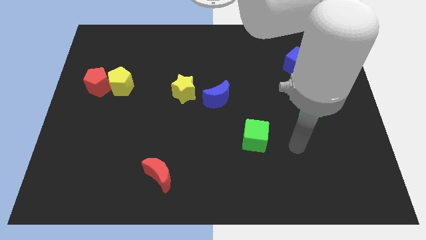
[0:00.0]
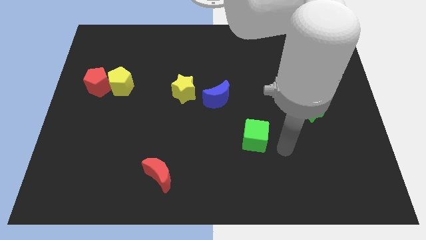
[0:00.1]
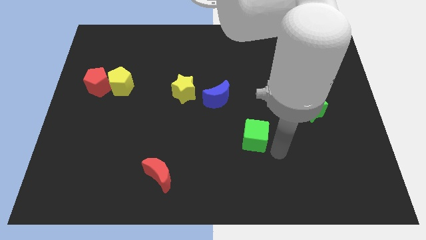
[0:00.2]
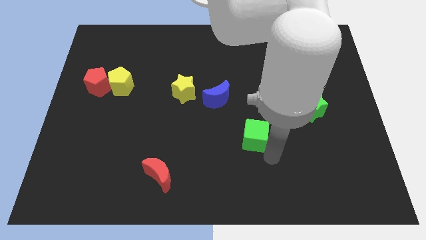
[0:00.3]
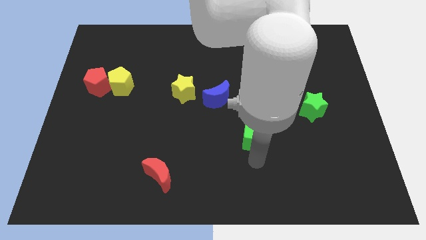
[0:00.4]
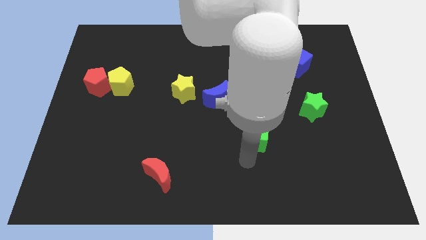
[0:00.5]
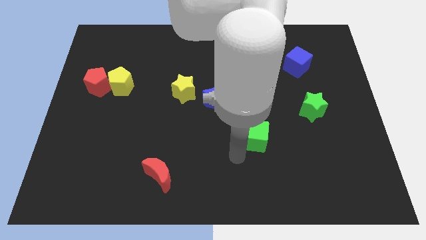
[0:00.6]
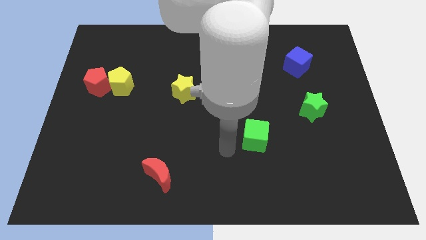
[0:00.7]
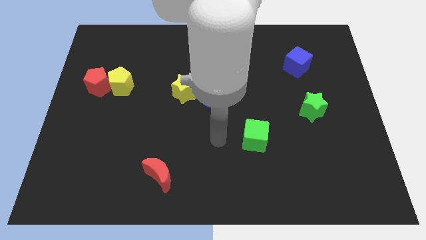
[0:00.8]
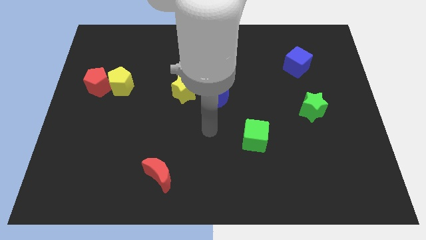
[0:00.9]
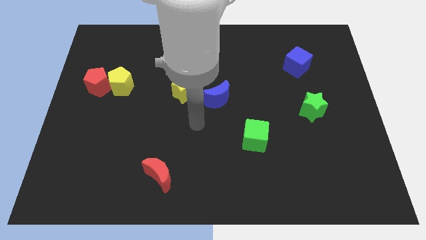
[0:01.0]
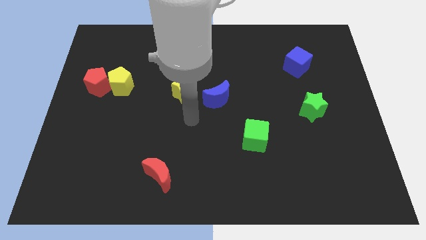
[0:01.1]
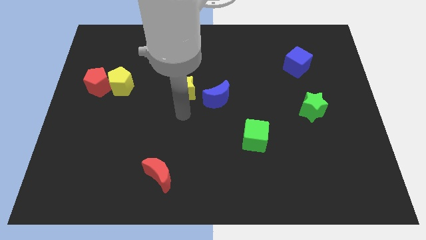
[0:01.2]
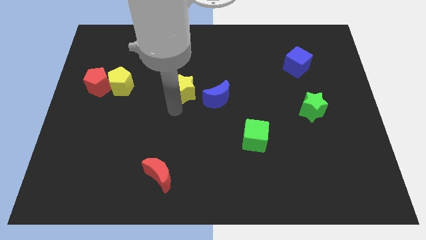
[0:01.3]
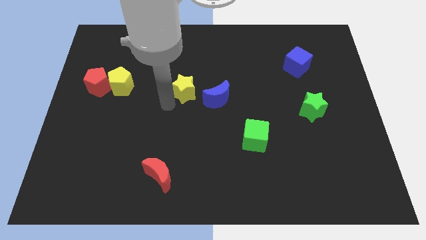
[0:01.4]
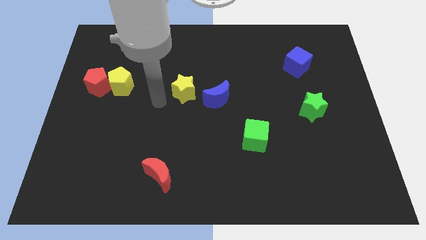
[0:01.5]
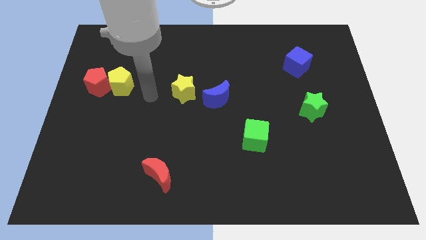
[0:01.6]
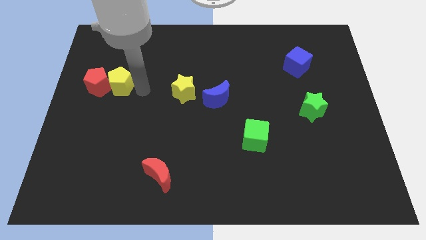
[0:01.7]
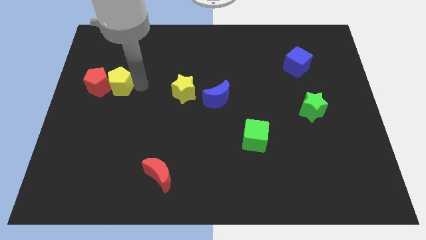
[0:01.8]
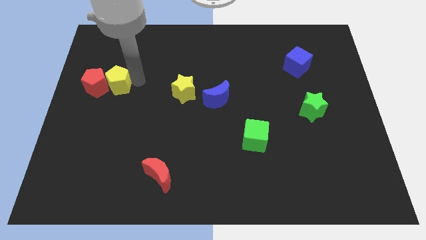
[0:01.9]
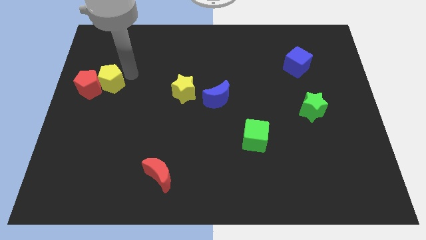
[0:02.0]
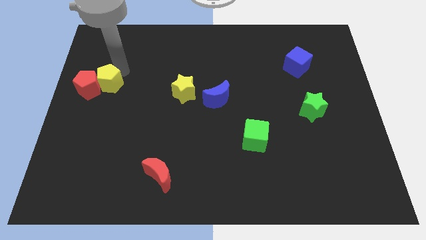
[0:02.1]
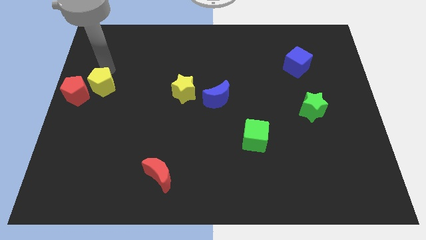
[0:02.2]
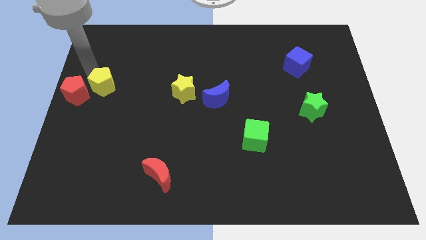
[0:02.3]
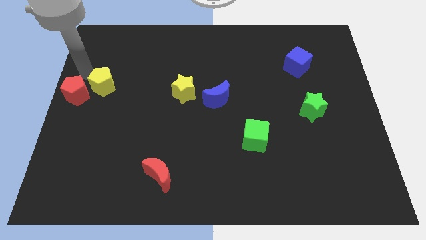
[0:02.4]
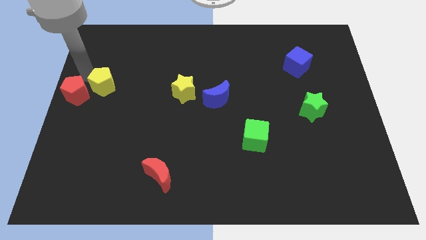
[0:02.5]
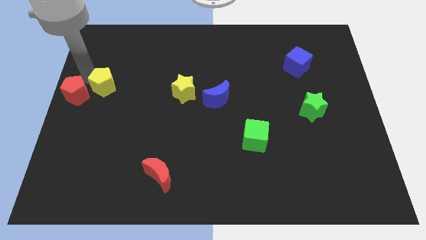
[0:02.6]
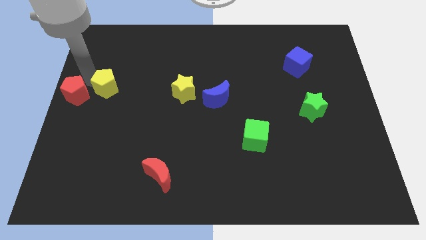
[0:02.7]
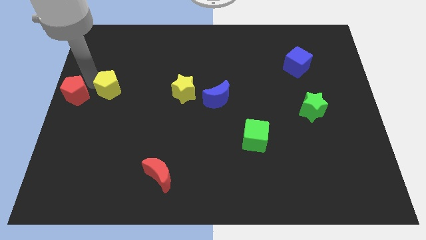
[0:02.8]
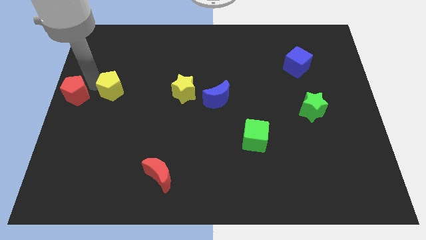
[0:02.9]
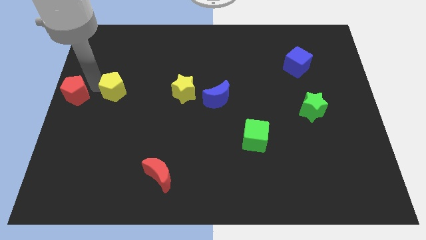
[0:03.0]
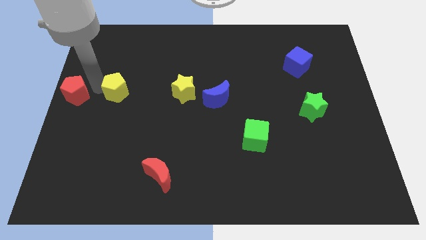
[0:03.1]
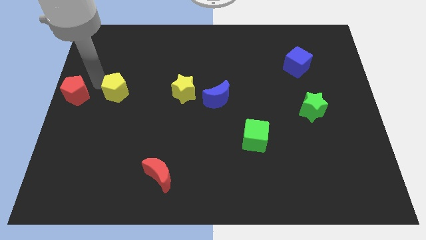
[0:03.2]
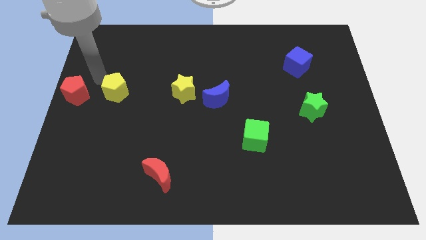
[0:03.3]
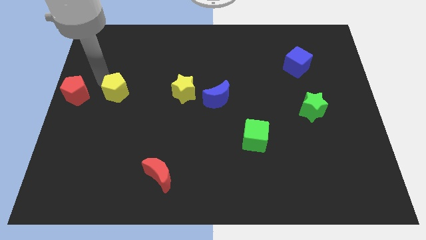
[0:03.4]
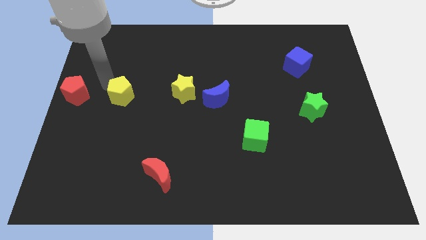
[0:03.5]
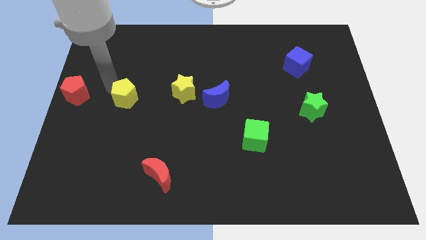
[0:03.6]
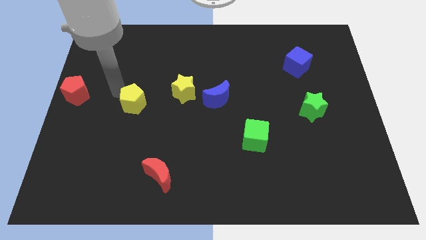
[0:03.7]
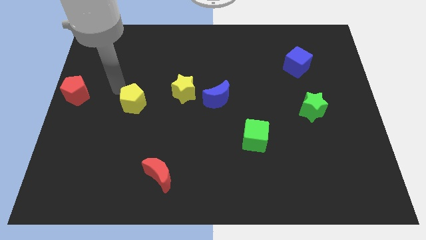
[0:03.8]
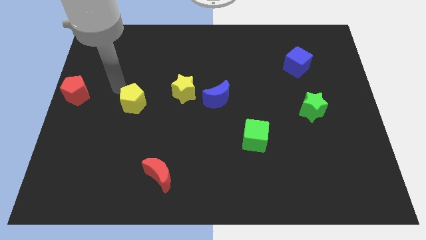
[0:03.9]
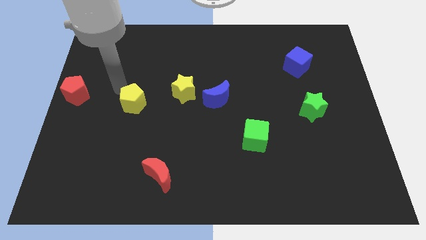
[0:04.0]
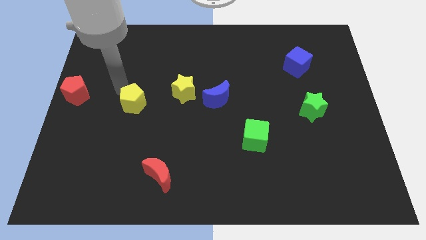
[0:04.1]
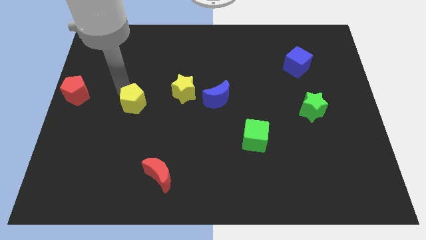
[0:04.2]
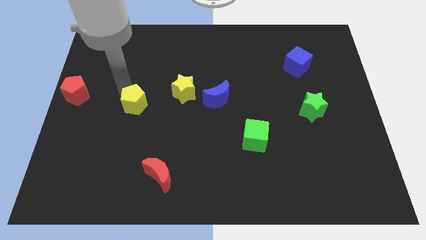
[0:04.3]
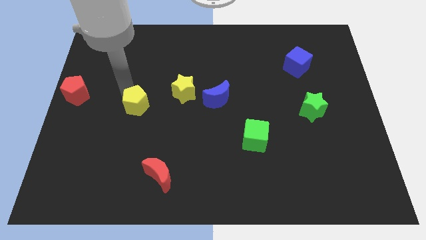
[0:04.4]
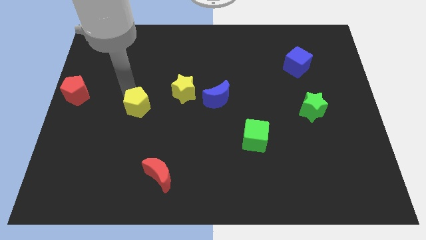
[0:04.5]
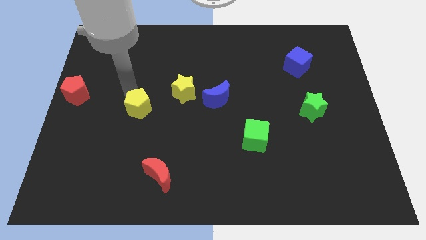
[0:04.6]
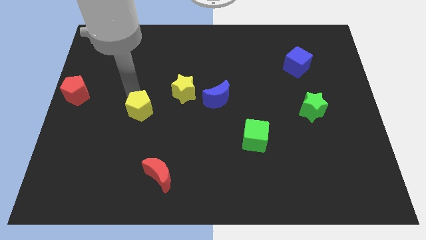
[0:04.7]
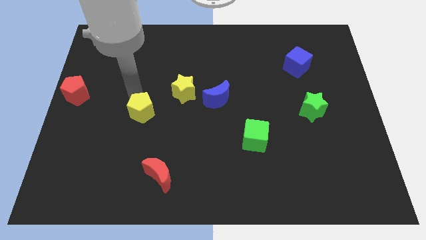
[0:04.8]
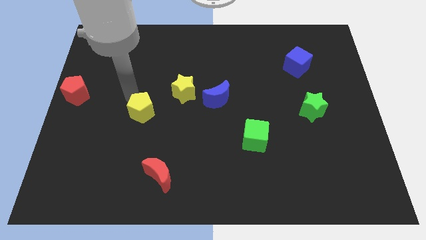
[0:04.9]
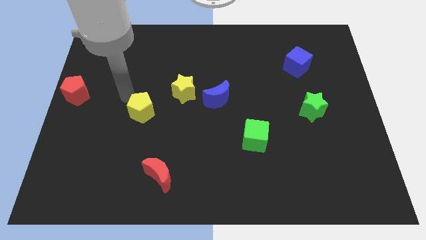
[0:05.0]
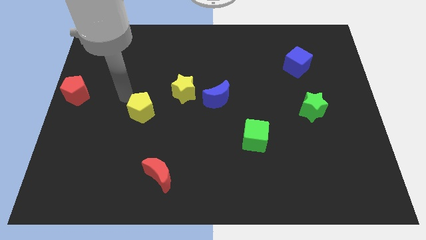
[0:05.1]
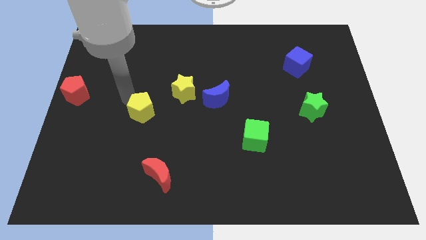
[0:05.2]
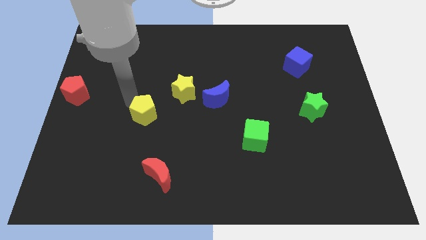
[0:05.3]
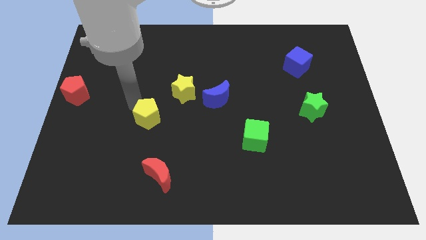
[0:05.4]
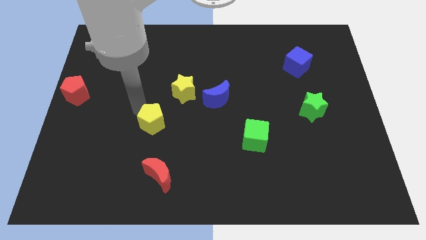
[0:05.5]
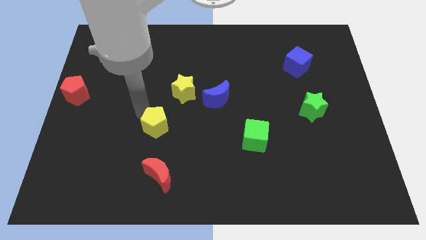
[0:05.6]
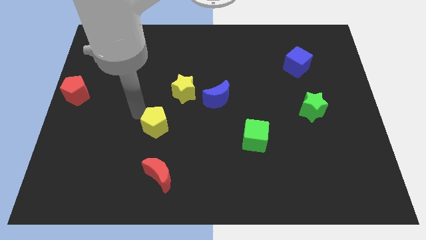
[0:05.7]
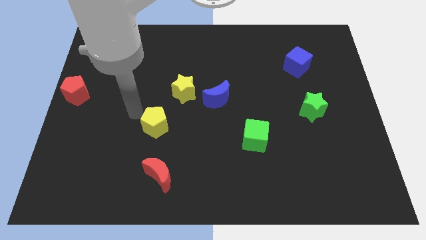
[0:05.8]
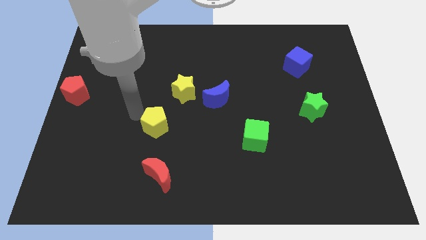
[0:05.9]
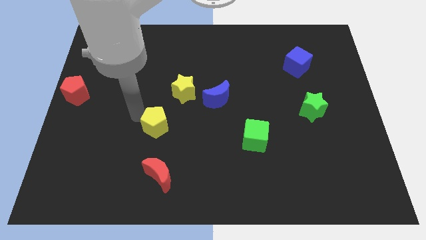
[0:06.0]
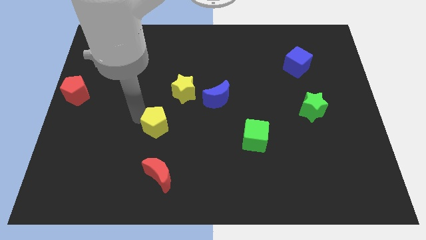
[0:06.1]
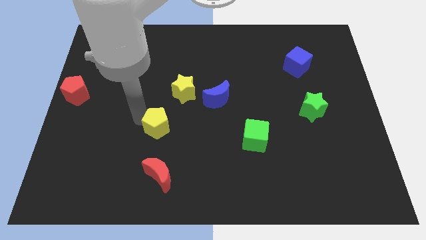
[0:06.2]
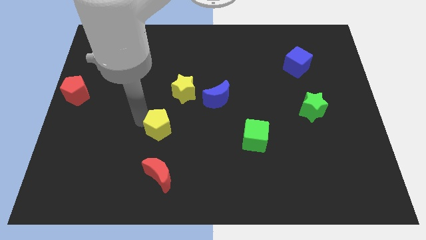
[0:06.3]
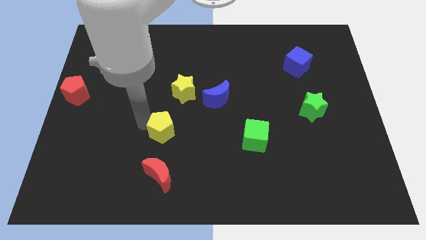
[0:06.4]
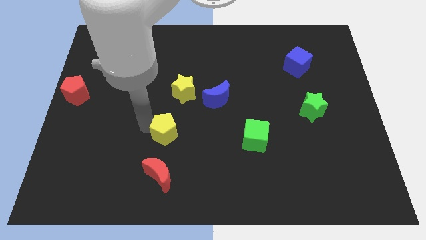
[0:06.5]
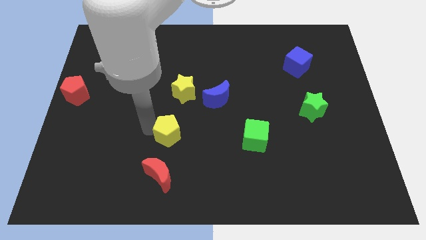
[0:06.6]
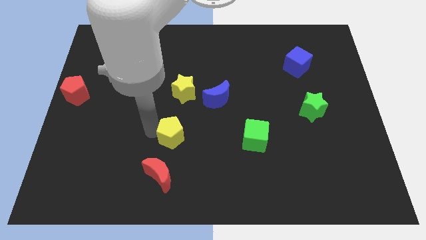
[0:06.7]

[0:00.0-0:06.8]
push the yellow pentagon down and right

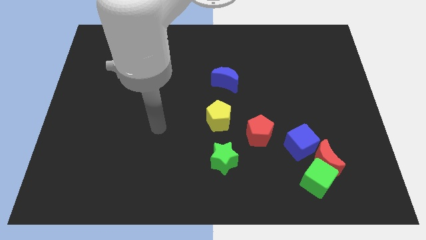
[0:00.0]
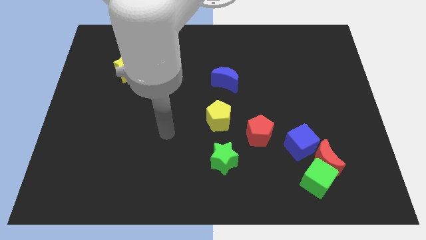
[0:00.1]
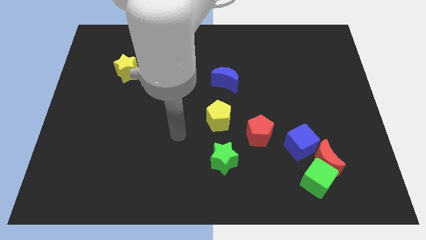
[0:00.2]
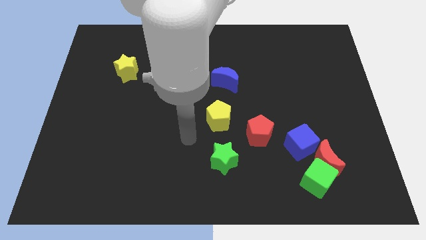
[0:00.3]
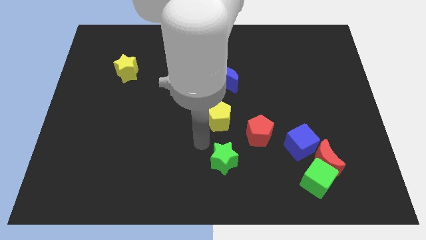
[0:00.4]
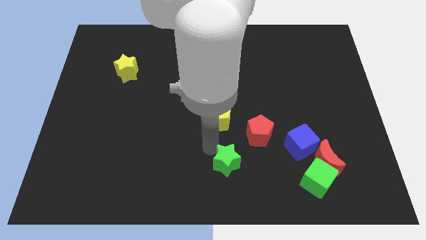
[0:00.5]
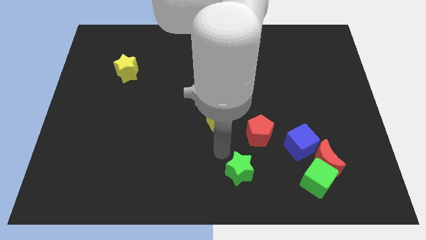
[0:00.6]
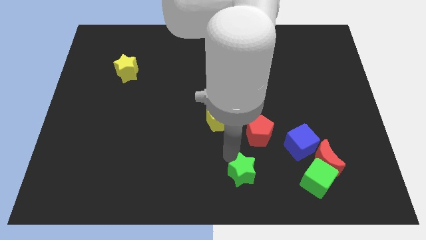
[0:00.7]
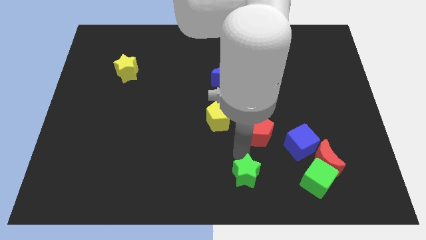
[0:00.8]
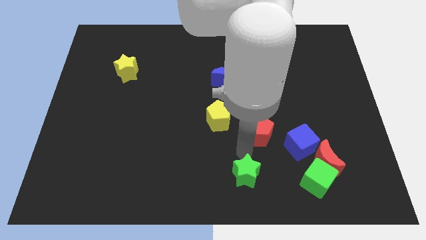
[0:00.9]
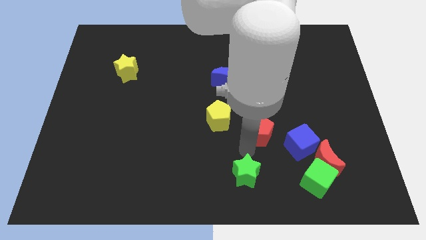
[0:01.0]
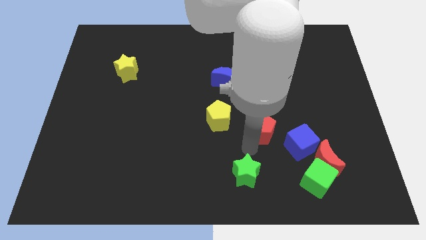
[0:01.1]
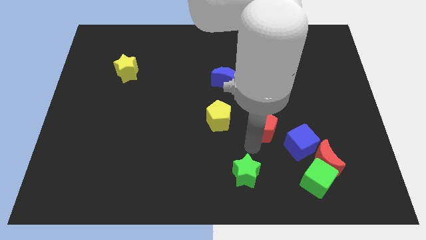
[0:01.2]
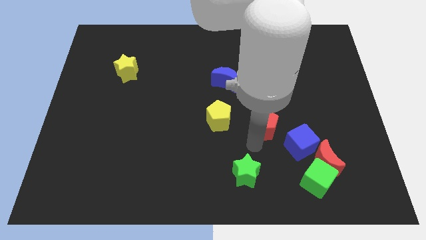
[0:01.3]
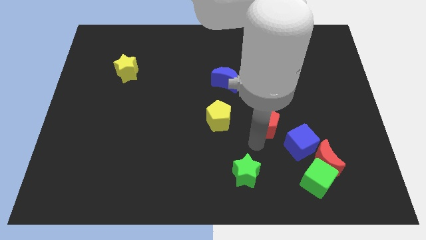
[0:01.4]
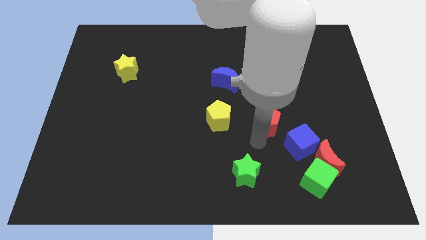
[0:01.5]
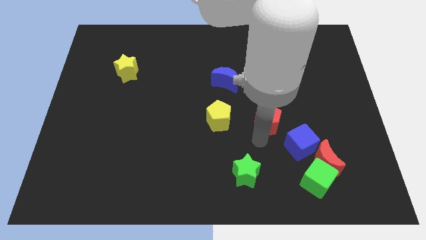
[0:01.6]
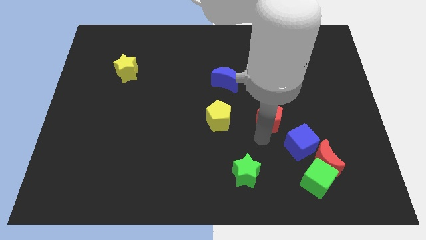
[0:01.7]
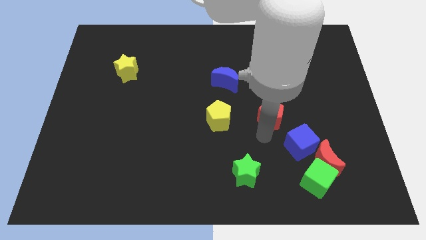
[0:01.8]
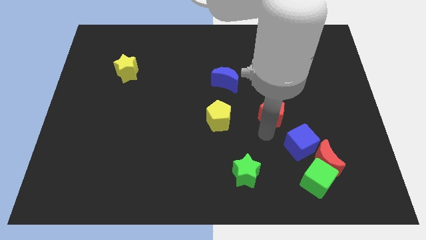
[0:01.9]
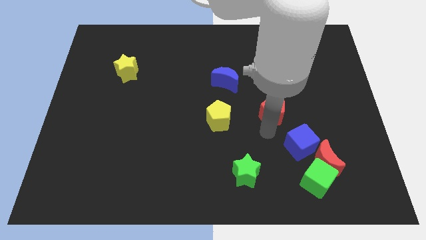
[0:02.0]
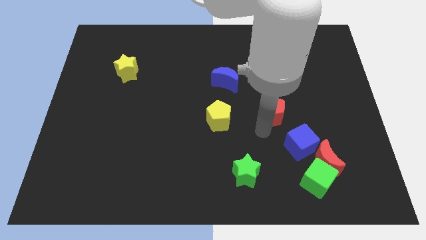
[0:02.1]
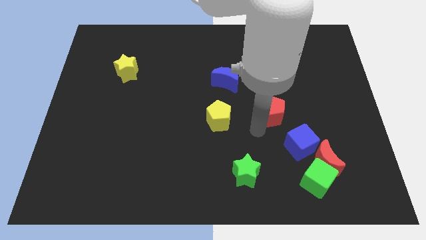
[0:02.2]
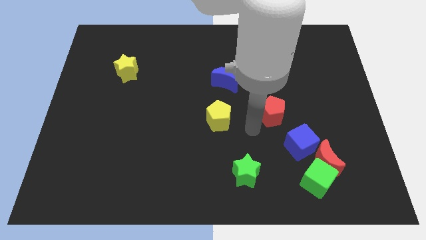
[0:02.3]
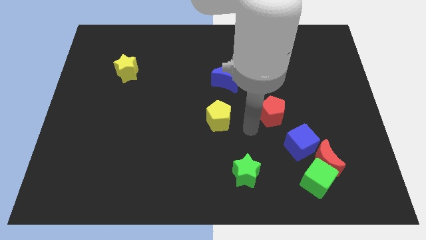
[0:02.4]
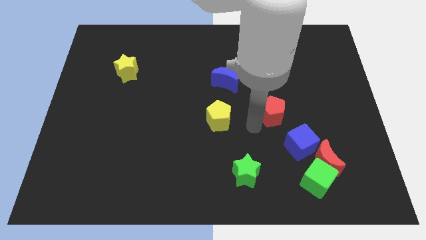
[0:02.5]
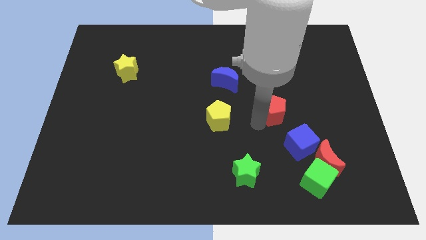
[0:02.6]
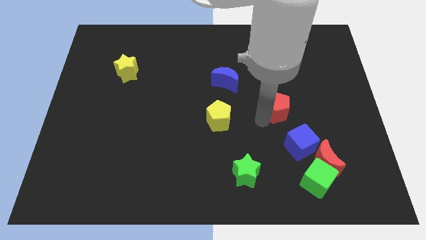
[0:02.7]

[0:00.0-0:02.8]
slide the red pentagon slightly diagonally up and to the right
